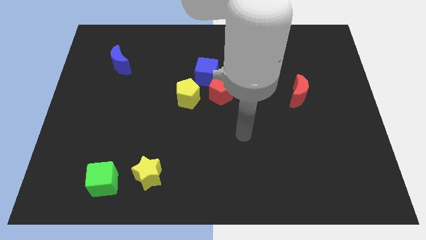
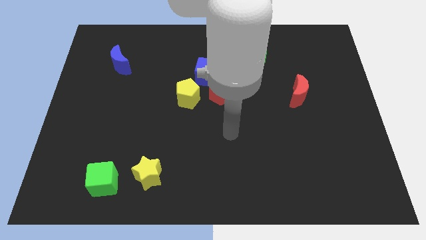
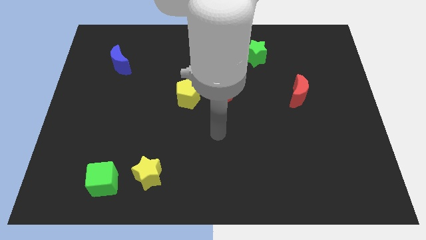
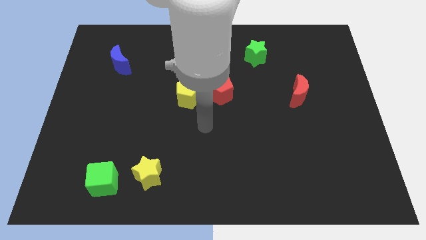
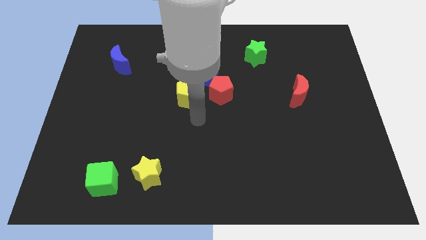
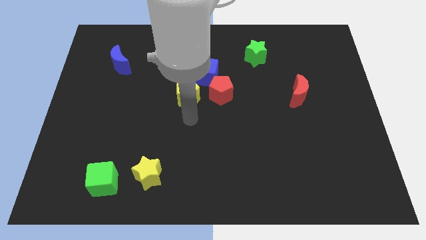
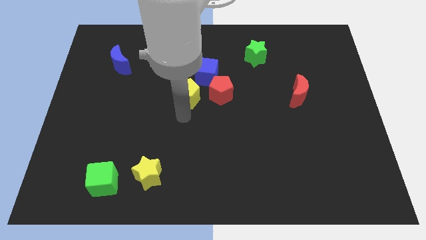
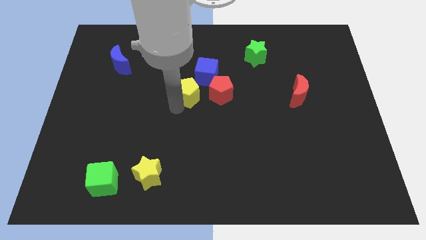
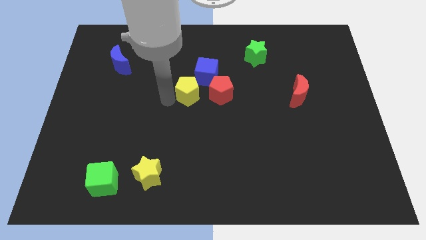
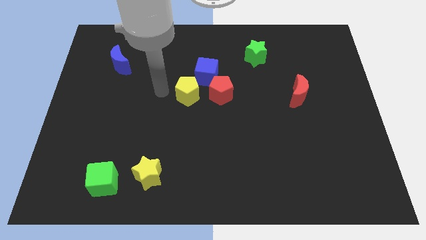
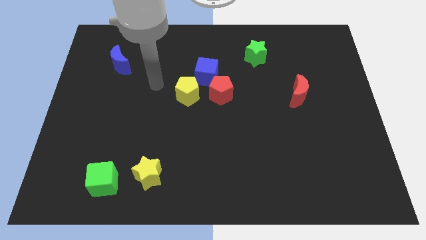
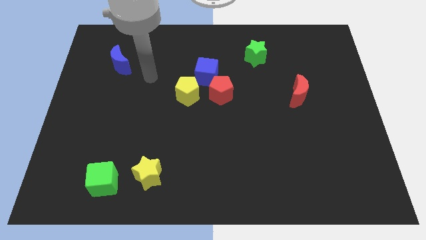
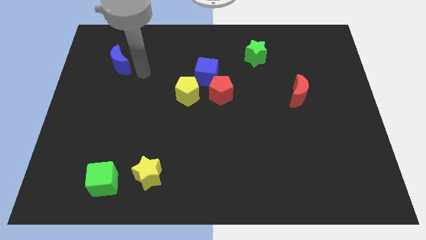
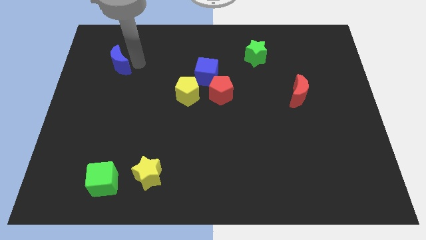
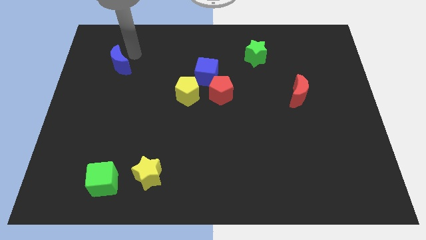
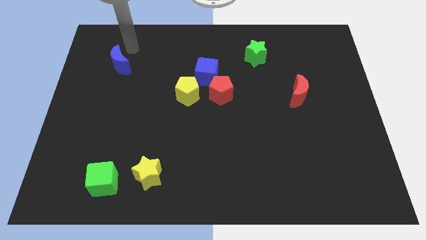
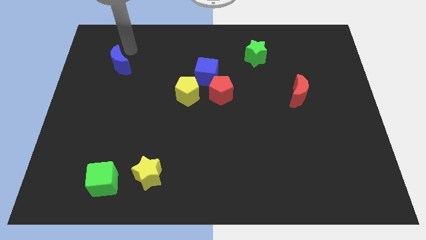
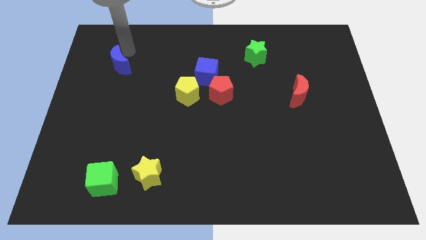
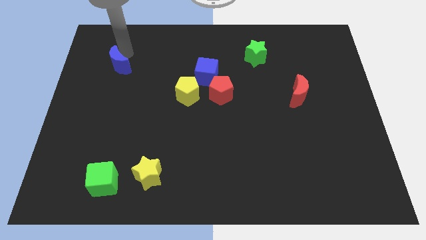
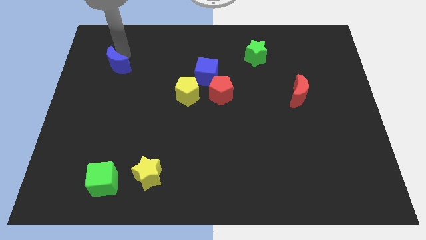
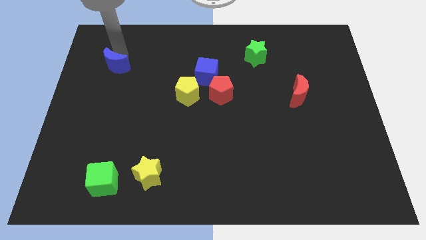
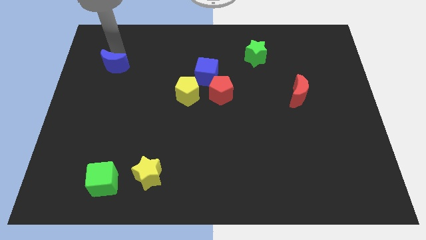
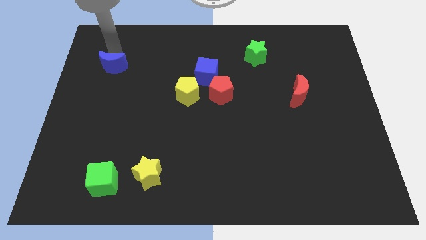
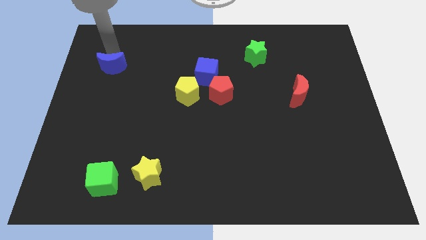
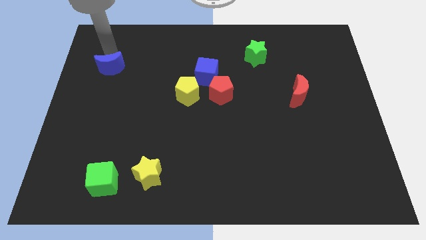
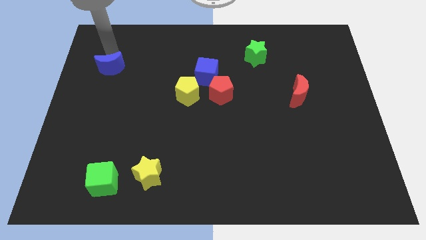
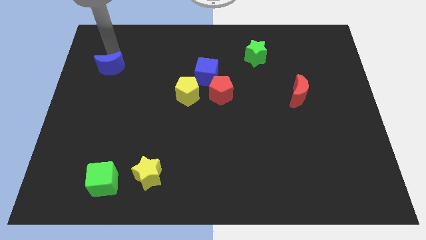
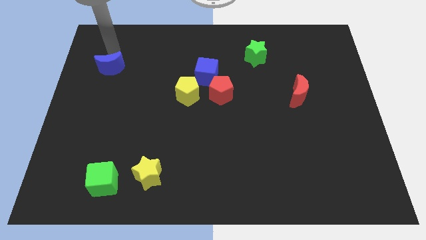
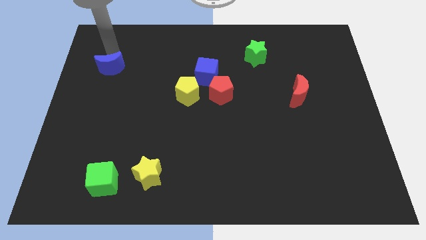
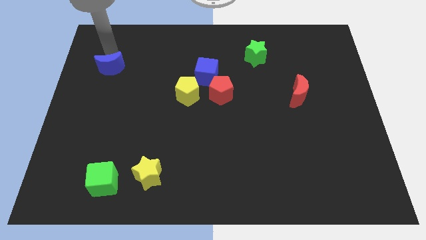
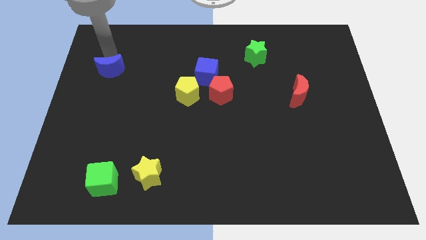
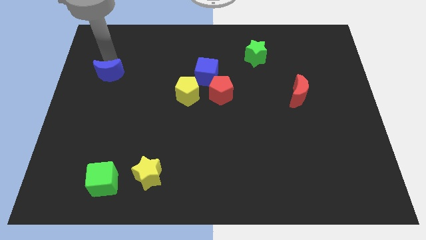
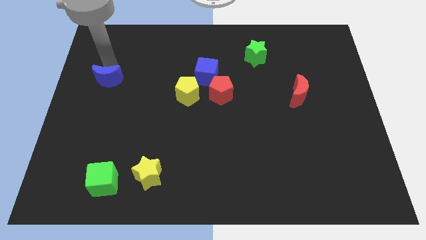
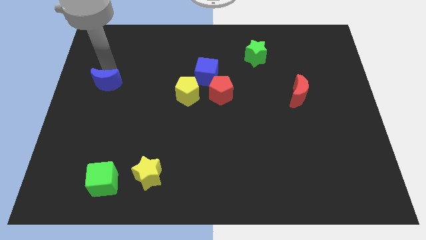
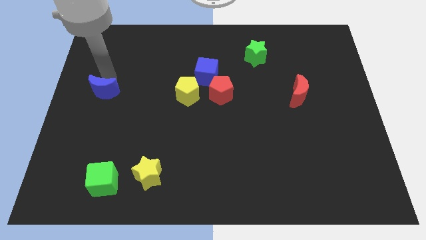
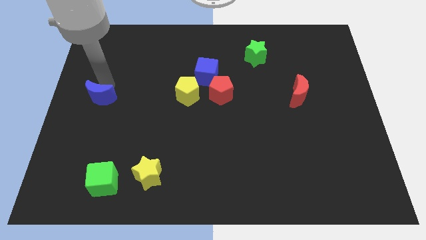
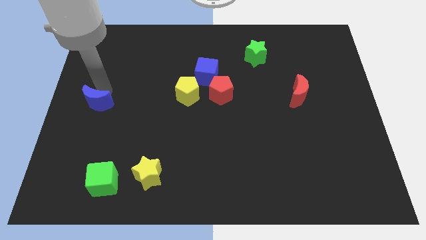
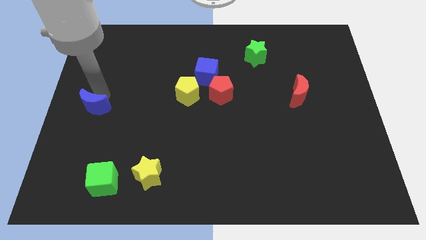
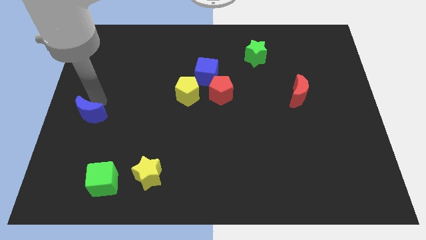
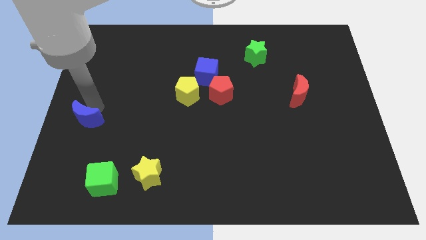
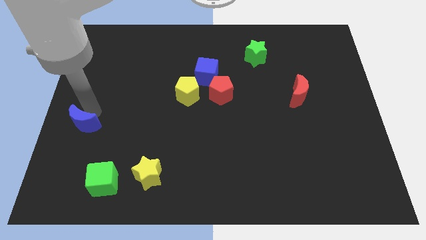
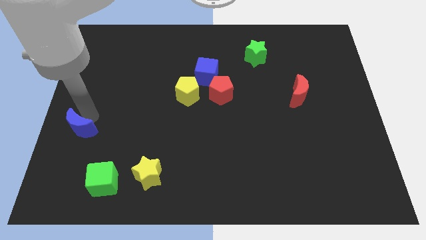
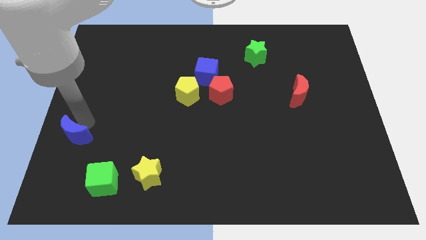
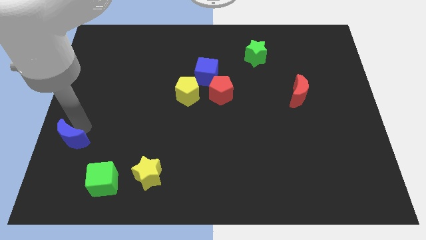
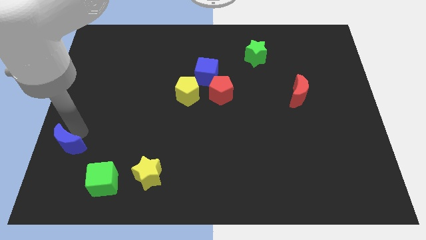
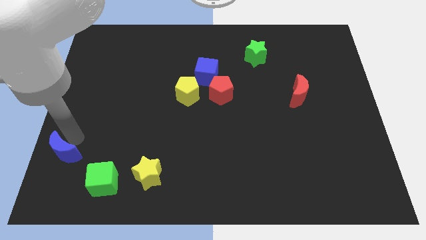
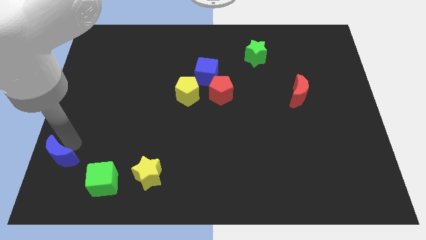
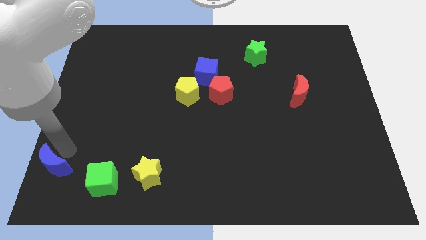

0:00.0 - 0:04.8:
push the blue moon to the bottom left of the board

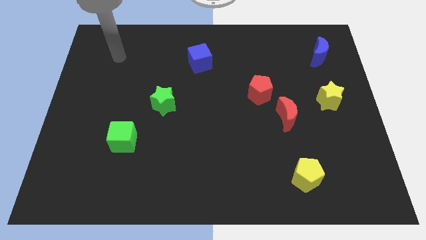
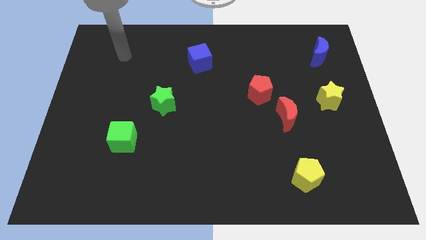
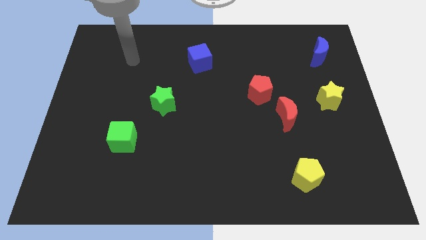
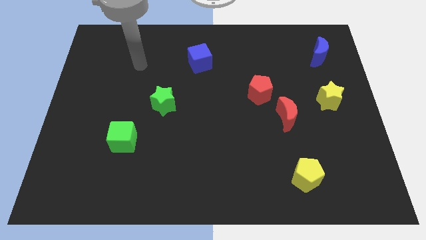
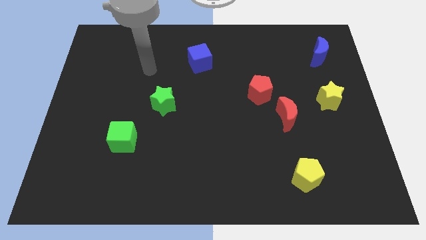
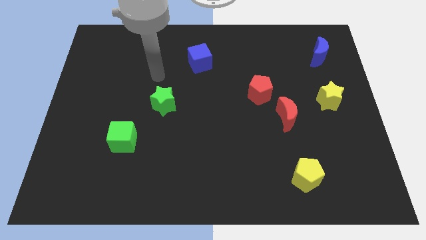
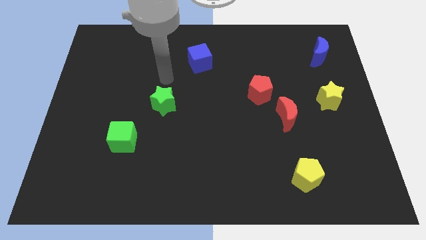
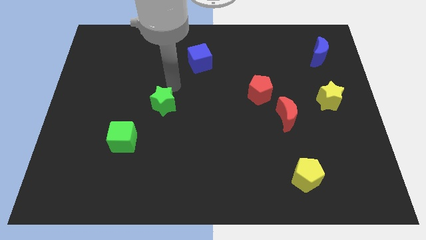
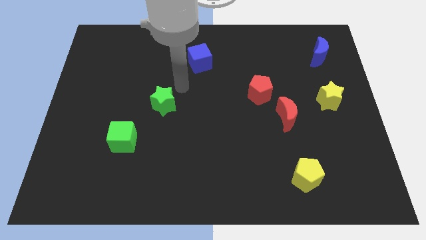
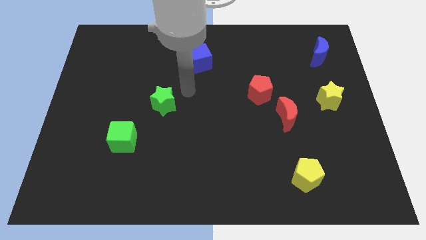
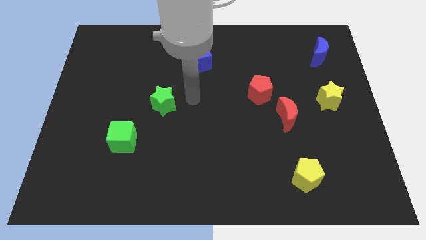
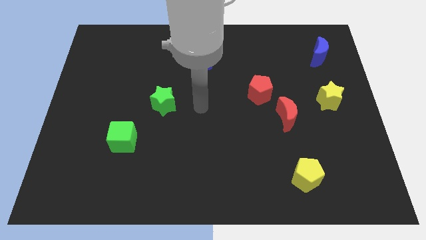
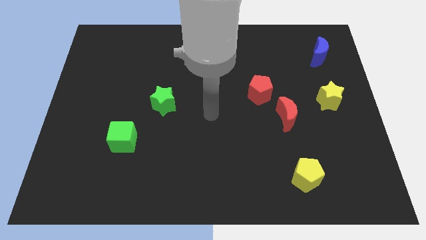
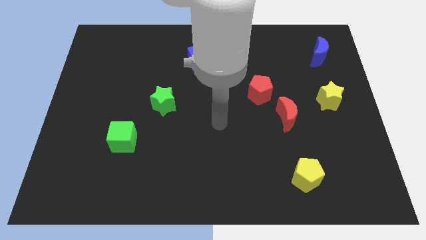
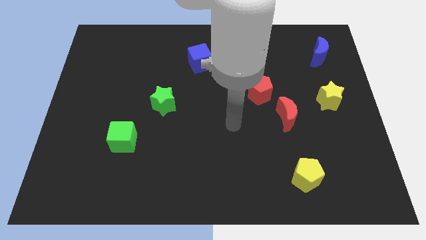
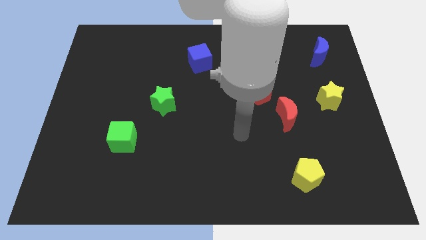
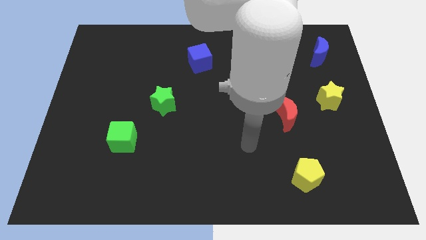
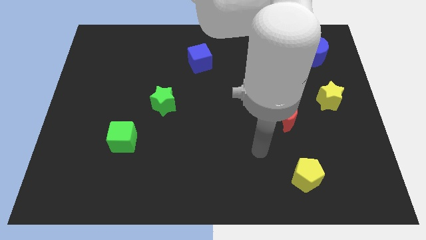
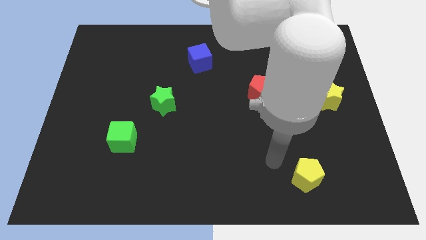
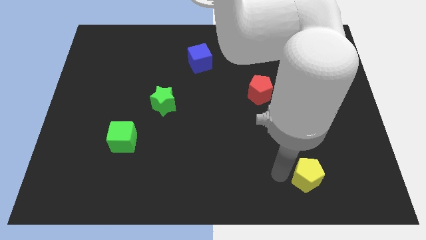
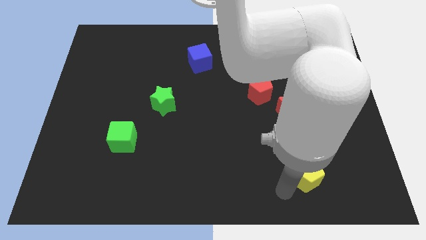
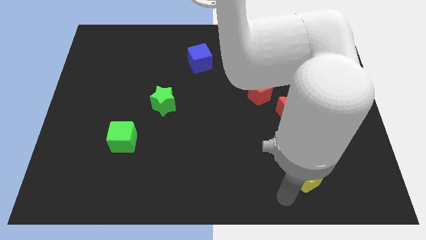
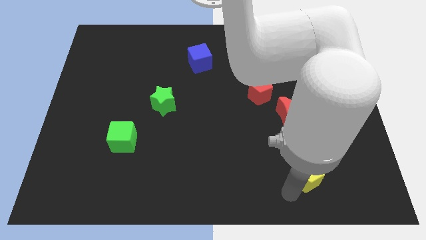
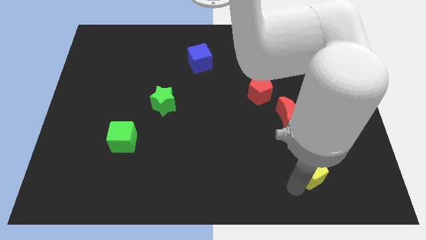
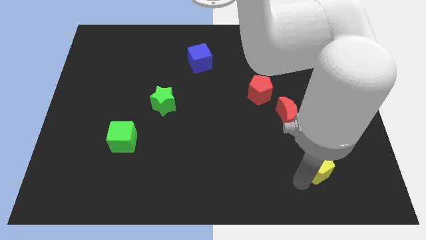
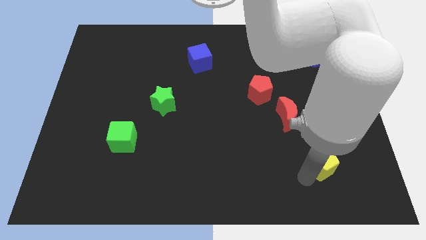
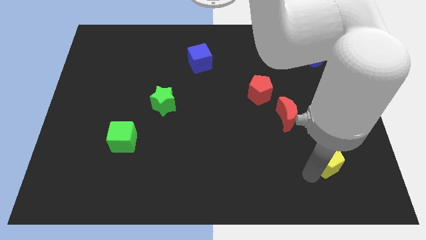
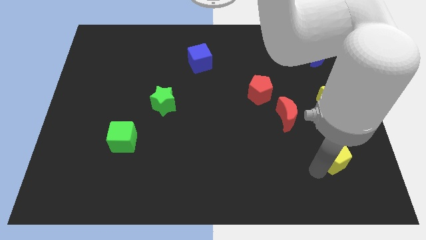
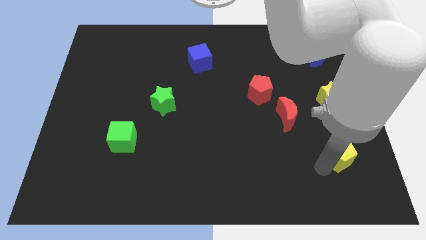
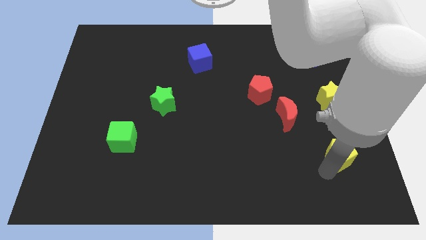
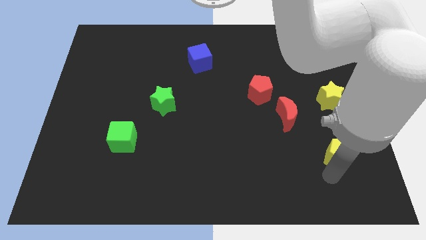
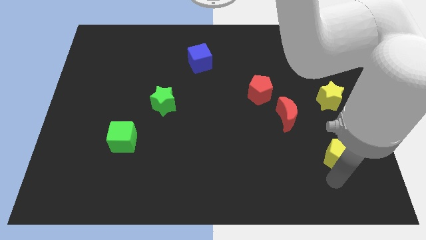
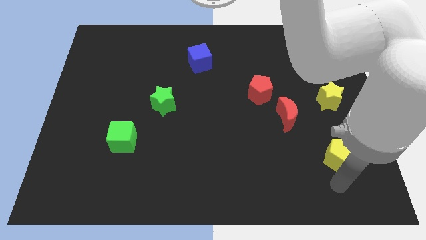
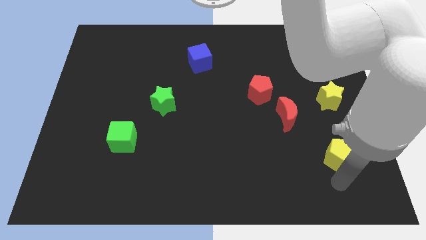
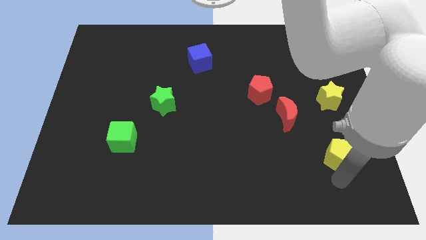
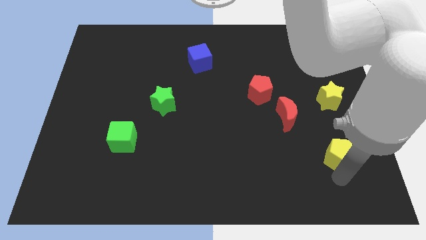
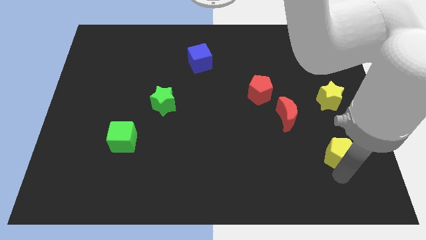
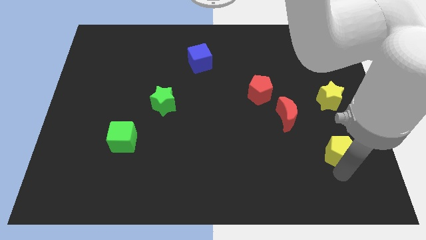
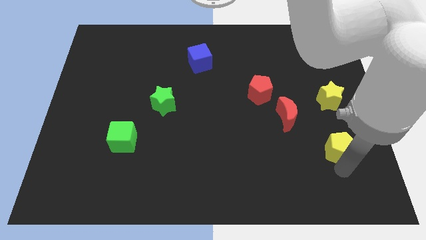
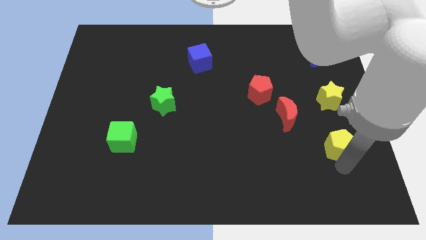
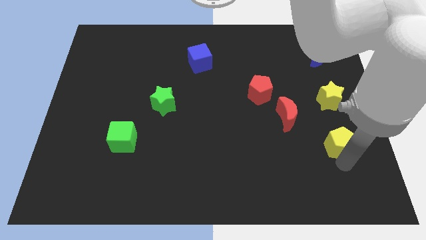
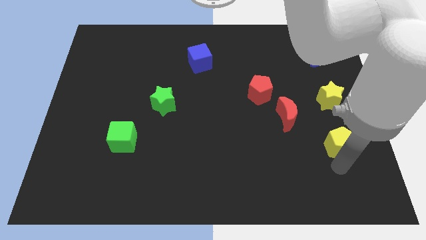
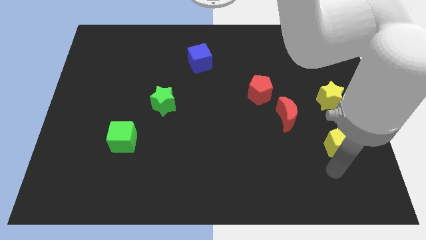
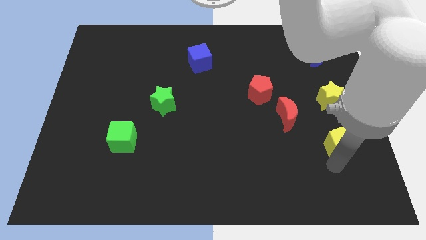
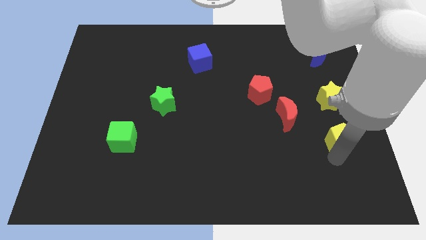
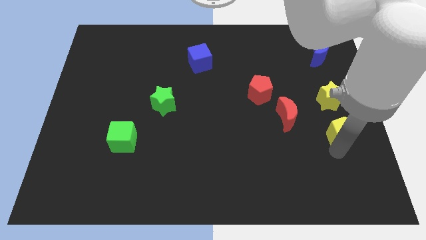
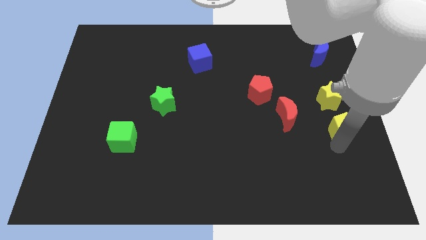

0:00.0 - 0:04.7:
put the yellow pentagon to the center right
